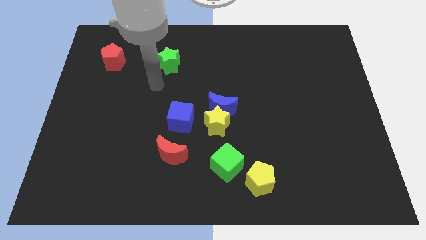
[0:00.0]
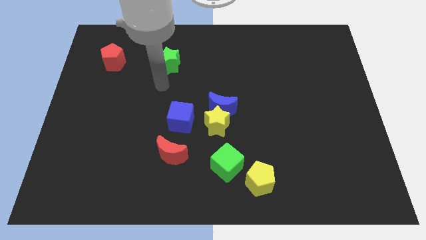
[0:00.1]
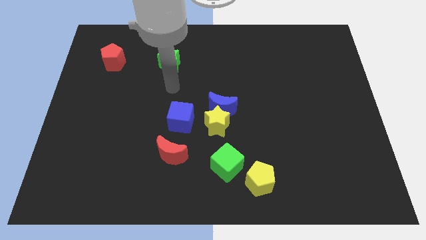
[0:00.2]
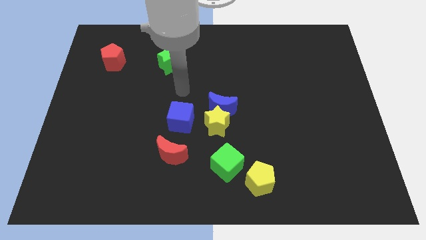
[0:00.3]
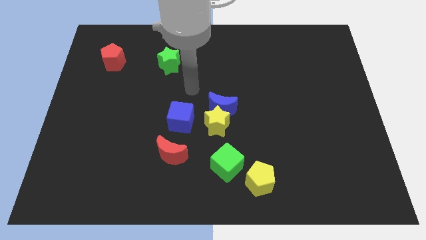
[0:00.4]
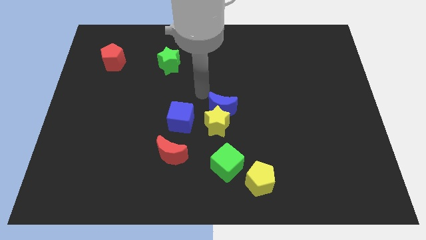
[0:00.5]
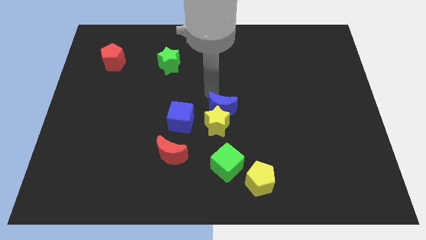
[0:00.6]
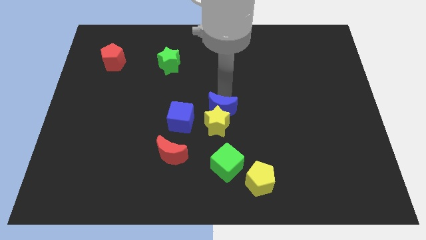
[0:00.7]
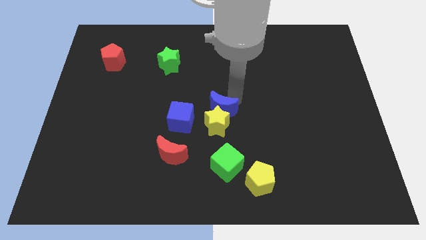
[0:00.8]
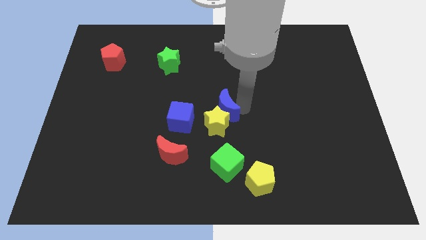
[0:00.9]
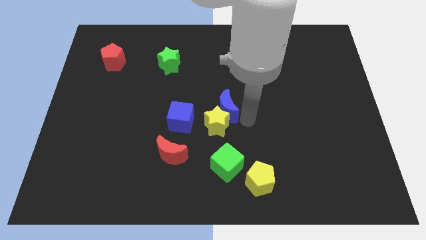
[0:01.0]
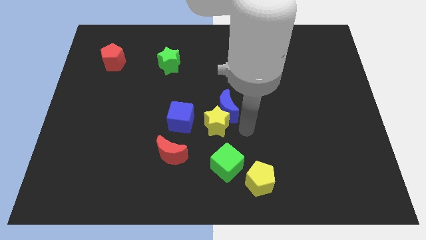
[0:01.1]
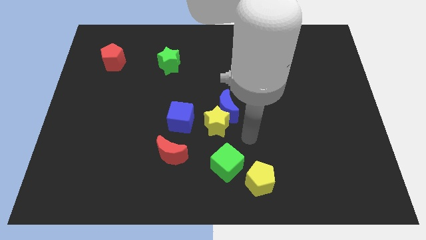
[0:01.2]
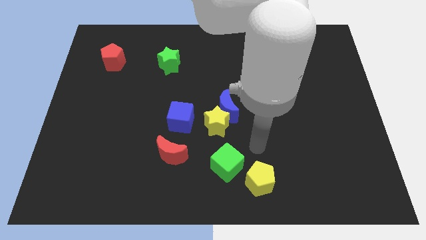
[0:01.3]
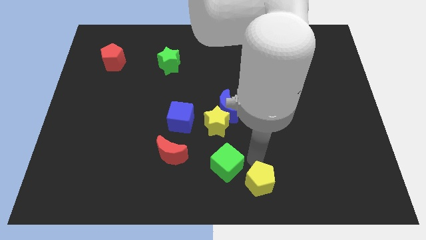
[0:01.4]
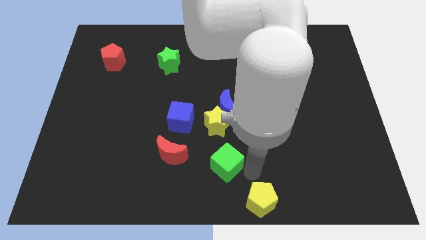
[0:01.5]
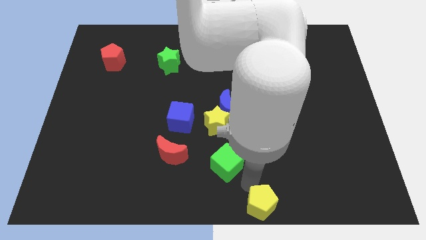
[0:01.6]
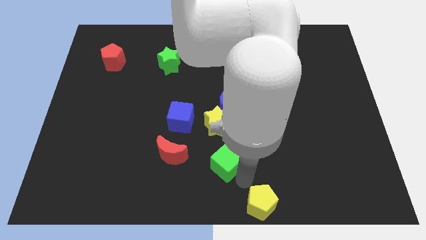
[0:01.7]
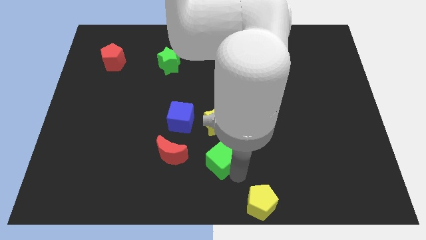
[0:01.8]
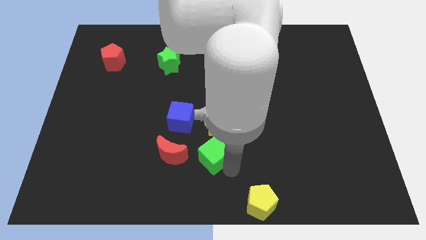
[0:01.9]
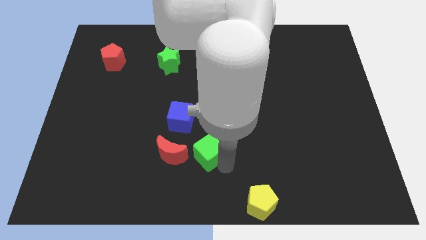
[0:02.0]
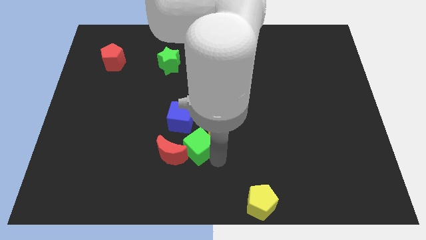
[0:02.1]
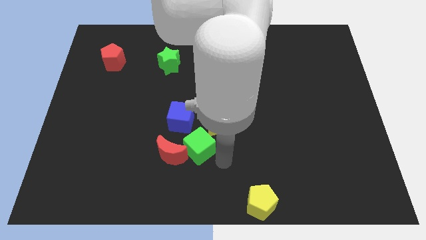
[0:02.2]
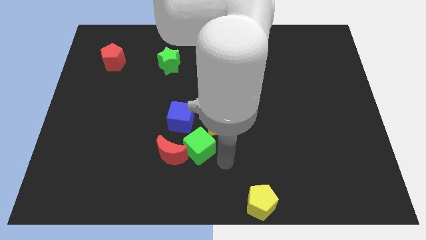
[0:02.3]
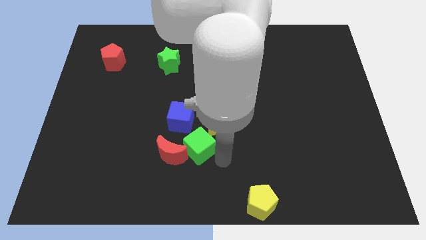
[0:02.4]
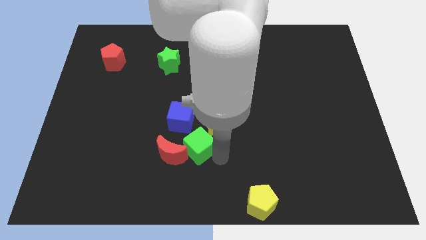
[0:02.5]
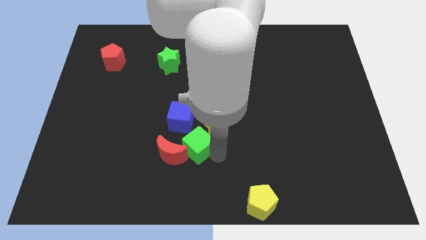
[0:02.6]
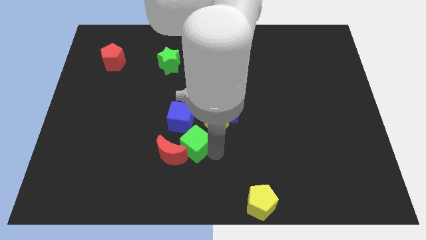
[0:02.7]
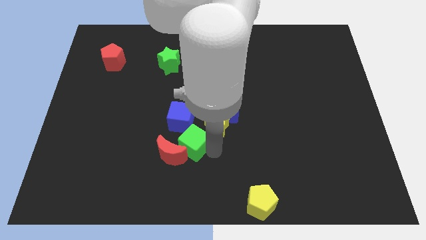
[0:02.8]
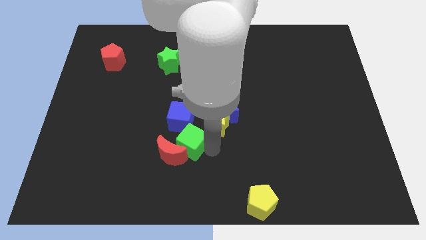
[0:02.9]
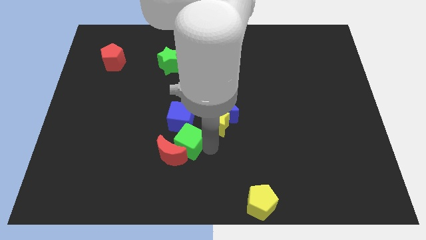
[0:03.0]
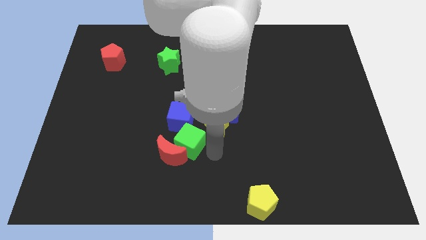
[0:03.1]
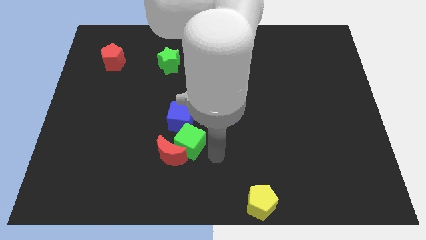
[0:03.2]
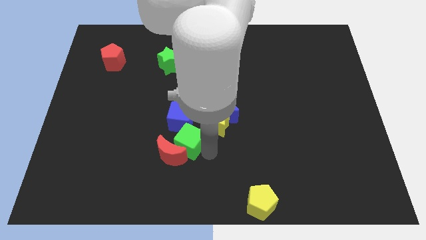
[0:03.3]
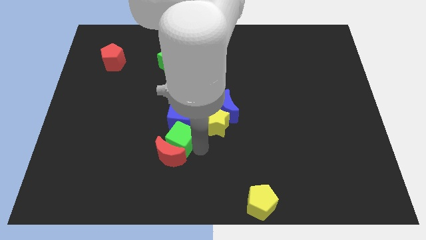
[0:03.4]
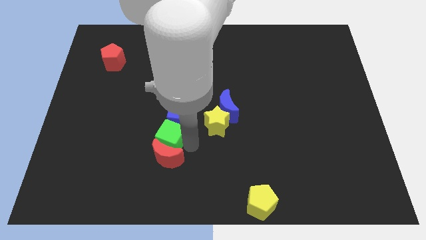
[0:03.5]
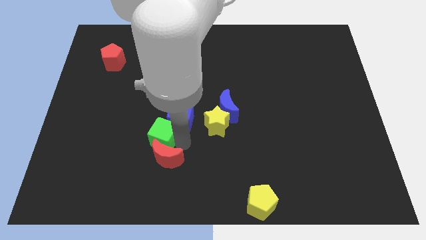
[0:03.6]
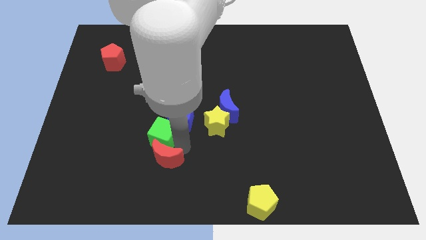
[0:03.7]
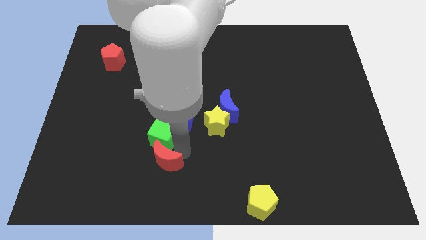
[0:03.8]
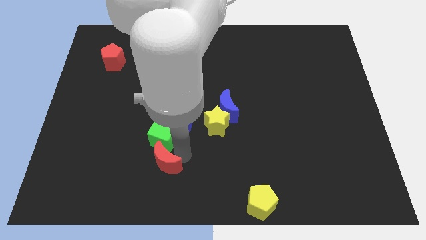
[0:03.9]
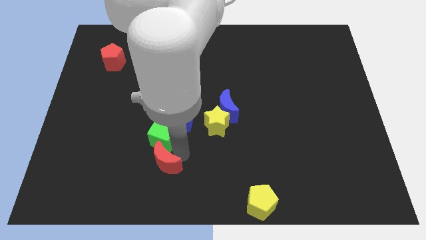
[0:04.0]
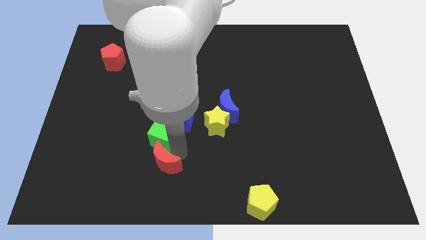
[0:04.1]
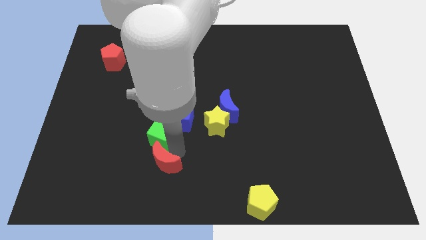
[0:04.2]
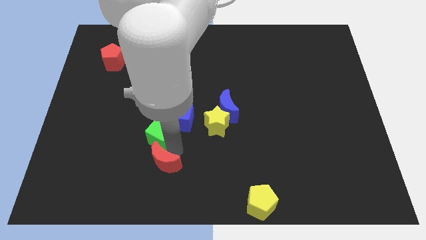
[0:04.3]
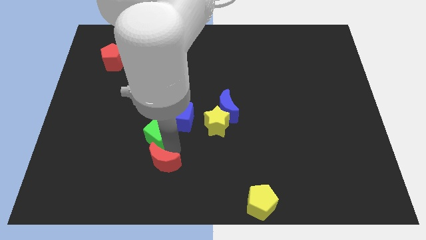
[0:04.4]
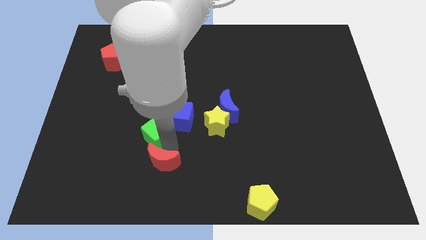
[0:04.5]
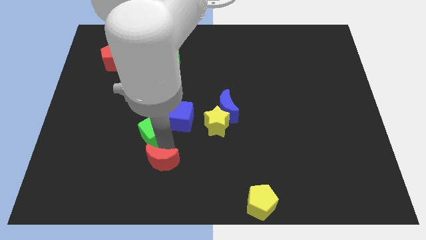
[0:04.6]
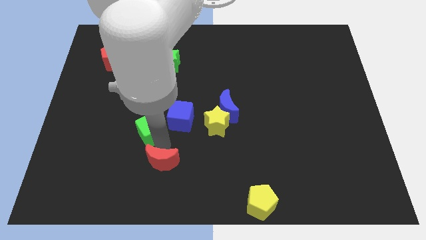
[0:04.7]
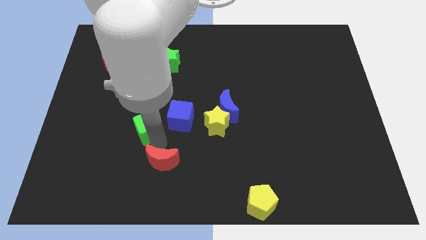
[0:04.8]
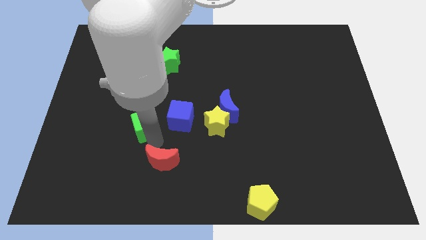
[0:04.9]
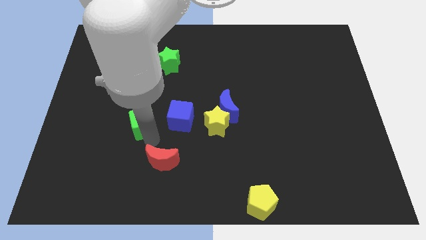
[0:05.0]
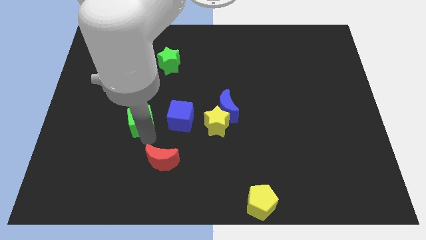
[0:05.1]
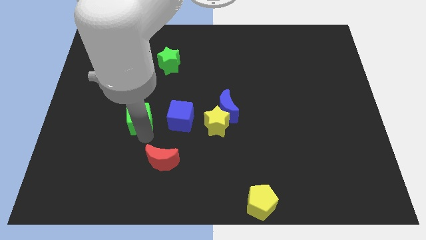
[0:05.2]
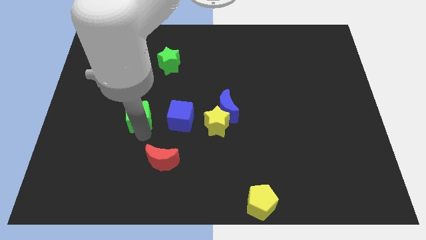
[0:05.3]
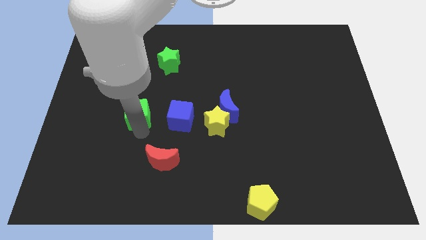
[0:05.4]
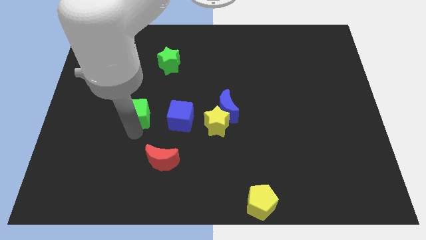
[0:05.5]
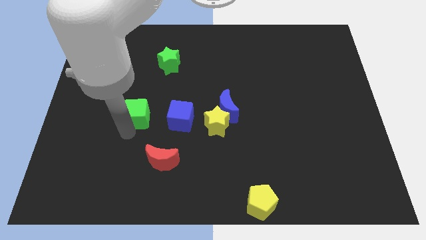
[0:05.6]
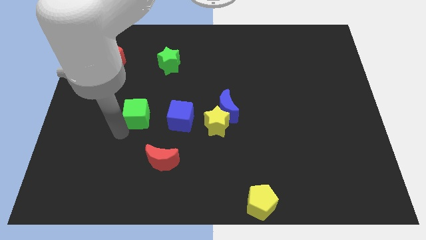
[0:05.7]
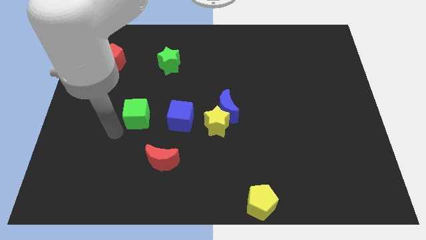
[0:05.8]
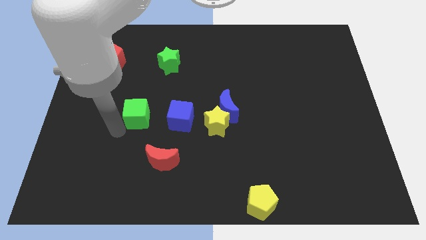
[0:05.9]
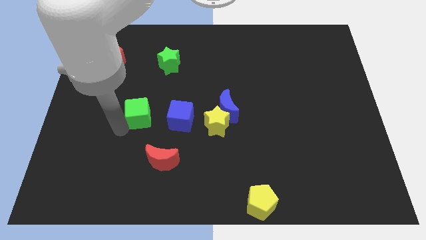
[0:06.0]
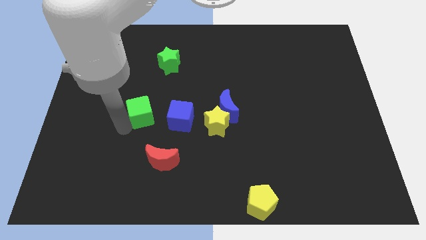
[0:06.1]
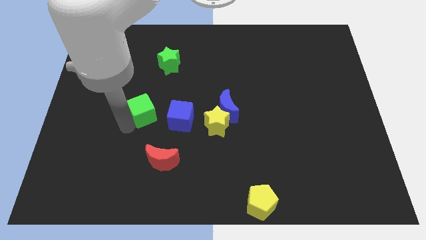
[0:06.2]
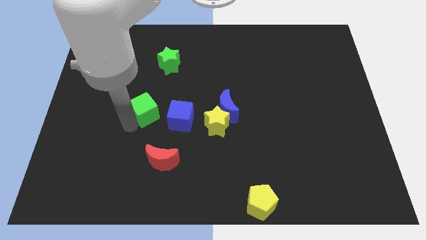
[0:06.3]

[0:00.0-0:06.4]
push the green cube to the top left of the blue cube
